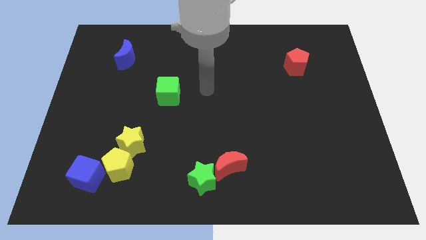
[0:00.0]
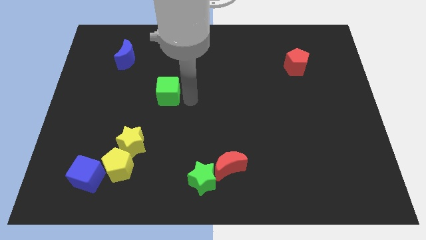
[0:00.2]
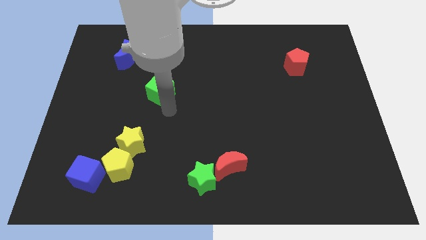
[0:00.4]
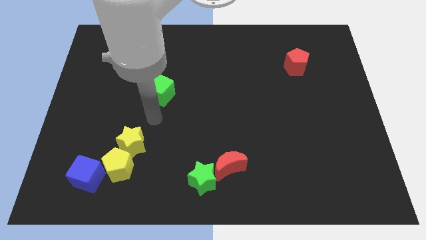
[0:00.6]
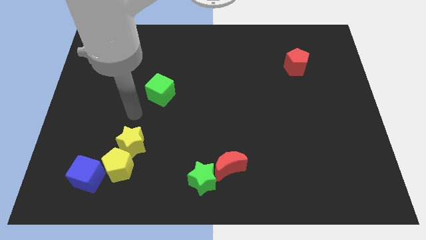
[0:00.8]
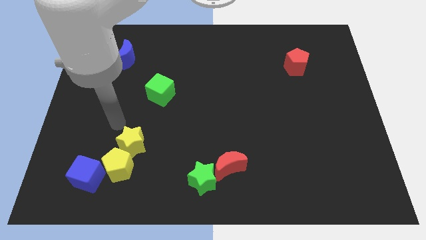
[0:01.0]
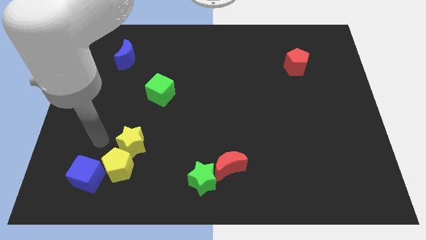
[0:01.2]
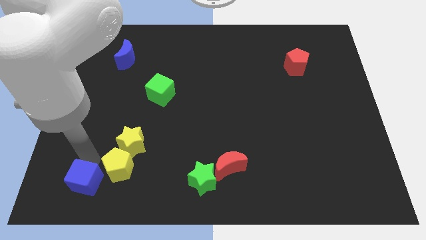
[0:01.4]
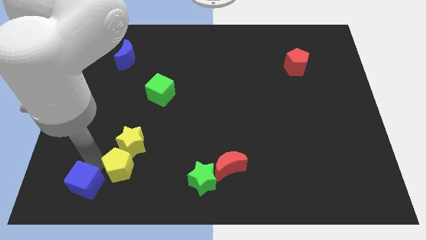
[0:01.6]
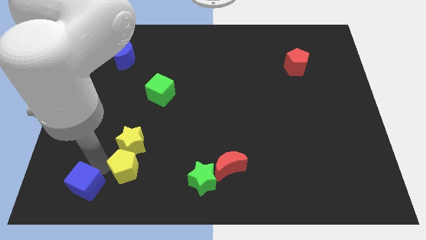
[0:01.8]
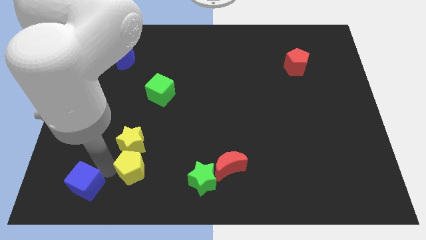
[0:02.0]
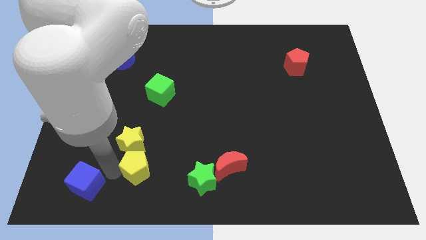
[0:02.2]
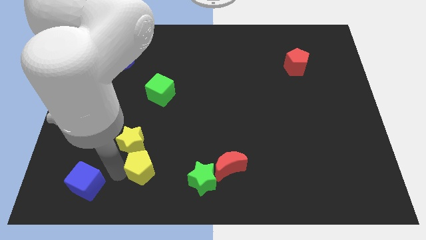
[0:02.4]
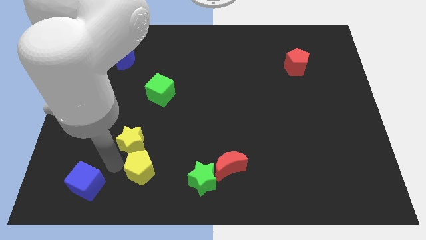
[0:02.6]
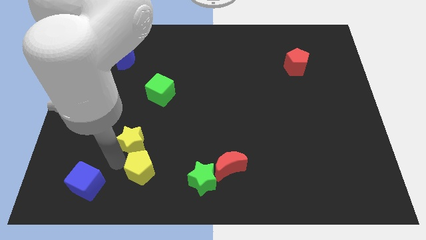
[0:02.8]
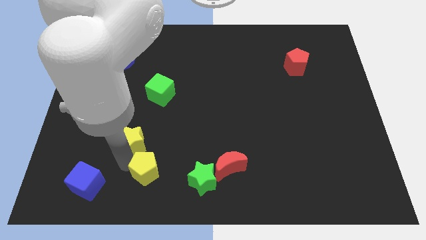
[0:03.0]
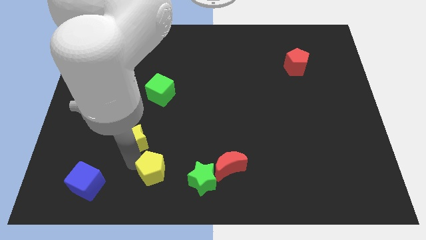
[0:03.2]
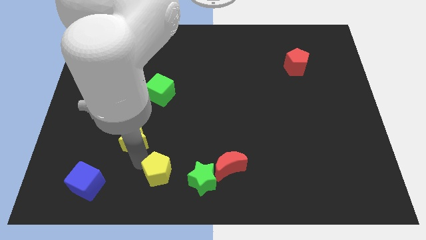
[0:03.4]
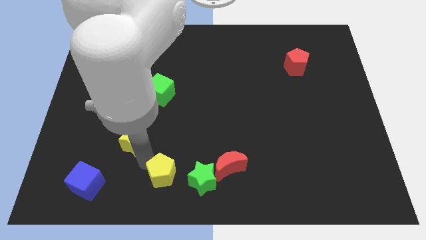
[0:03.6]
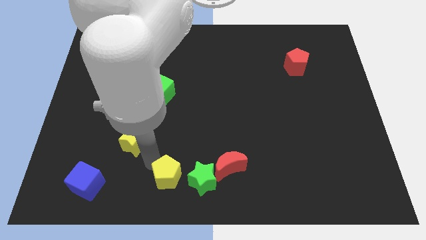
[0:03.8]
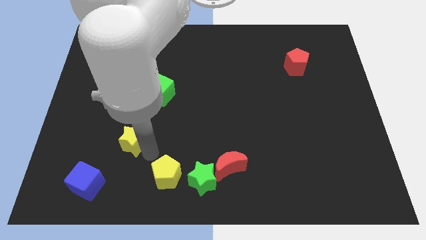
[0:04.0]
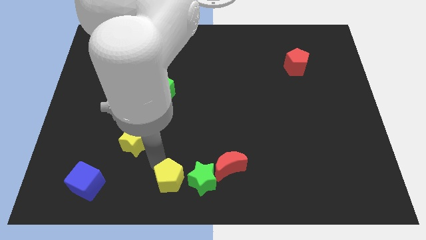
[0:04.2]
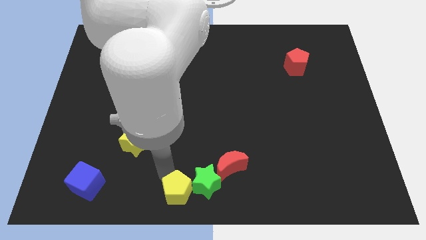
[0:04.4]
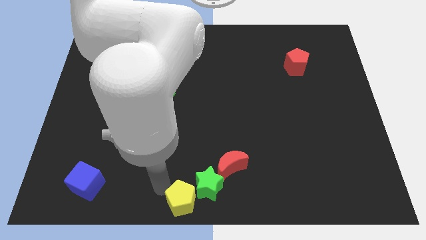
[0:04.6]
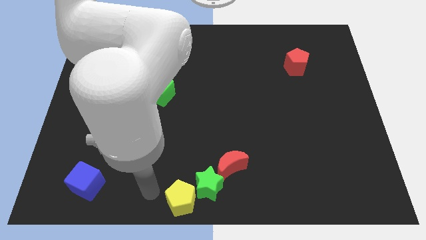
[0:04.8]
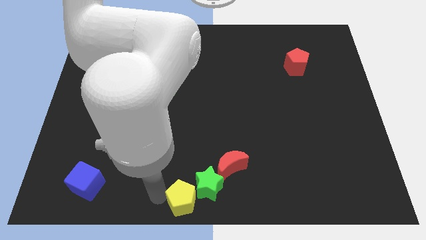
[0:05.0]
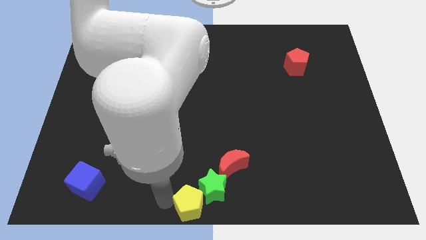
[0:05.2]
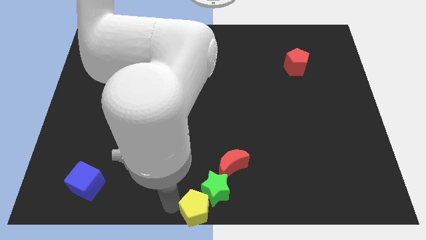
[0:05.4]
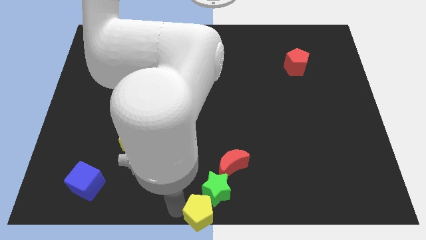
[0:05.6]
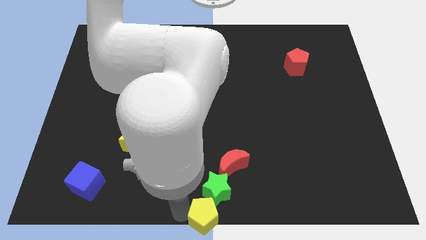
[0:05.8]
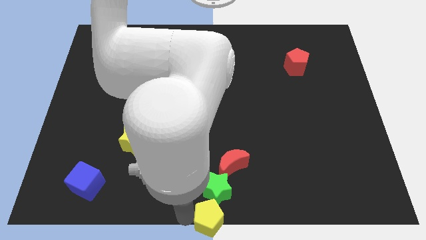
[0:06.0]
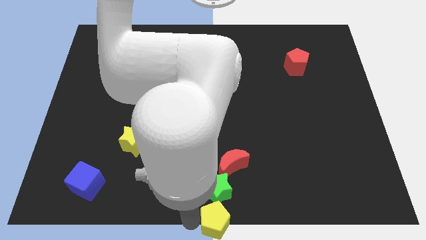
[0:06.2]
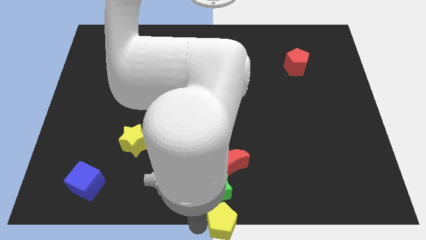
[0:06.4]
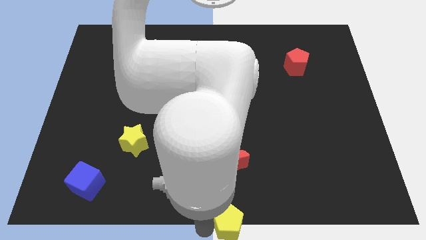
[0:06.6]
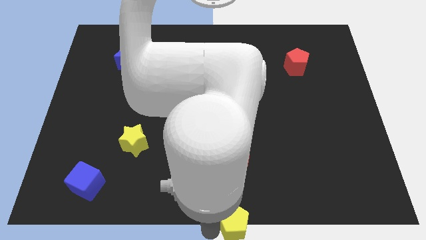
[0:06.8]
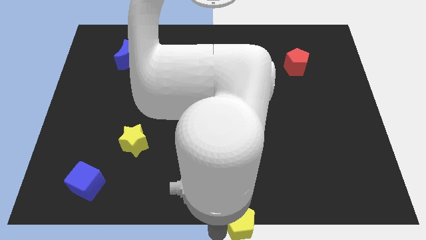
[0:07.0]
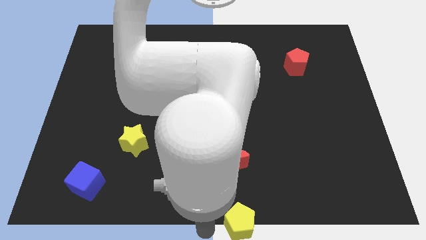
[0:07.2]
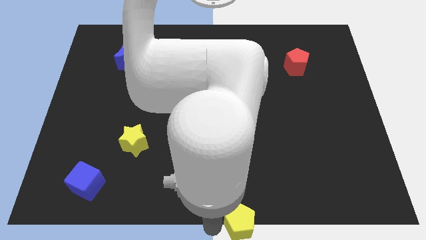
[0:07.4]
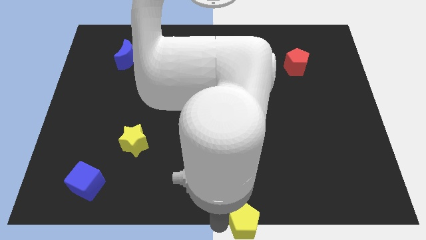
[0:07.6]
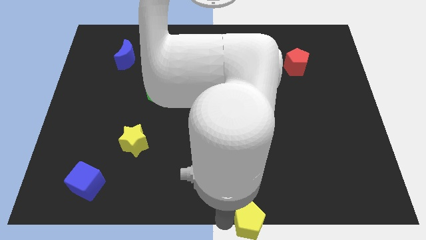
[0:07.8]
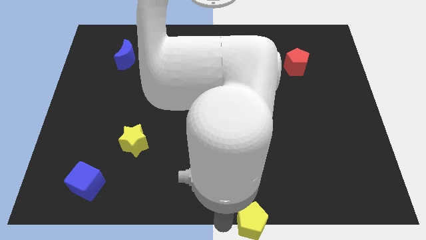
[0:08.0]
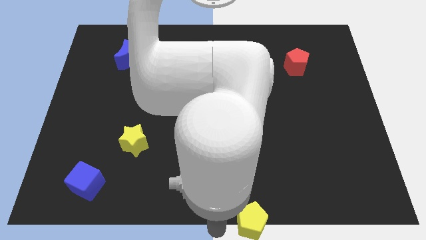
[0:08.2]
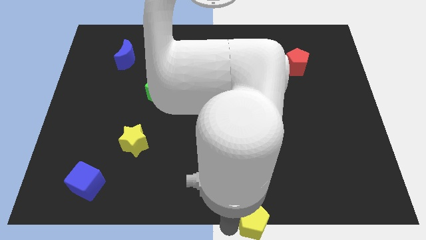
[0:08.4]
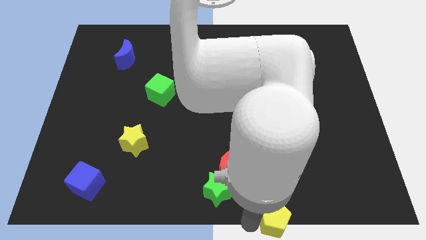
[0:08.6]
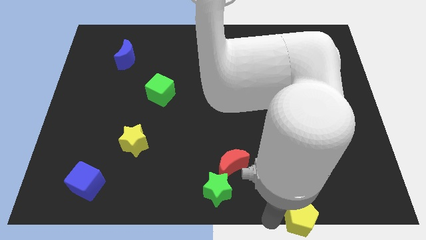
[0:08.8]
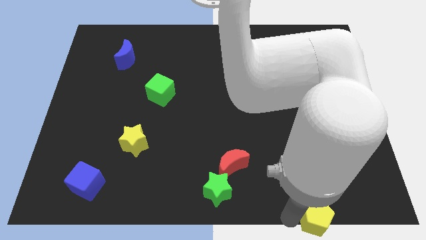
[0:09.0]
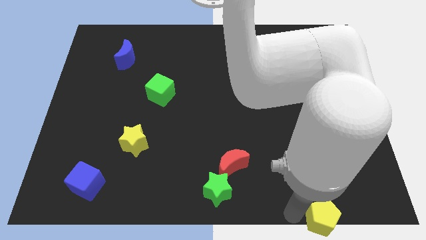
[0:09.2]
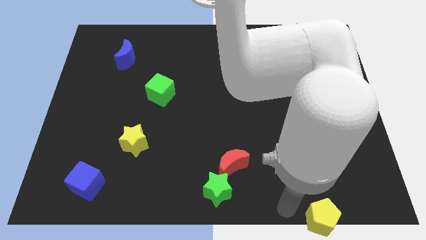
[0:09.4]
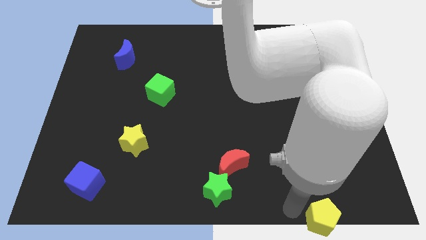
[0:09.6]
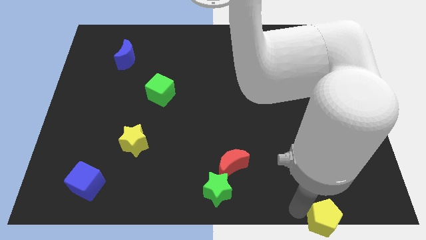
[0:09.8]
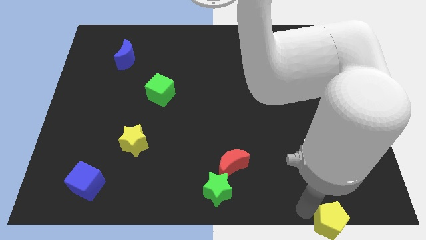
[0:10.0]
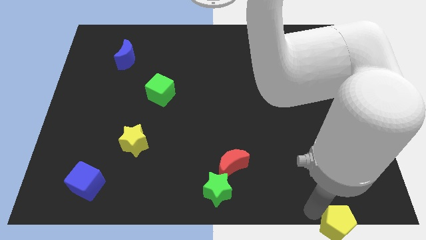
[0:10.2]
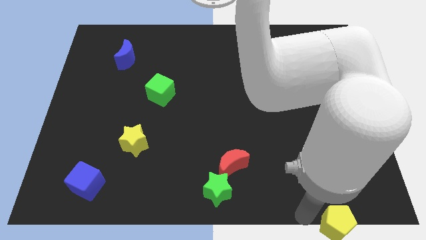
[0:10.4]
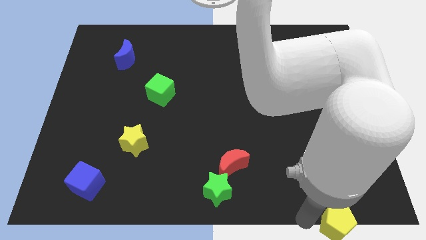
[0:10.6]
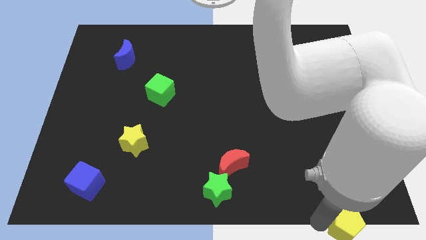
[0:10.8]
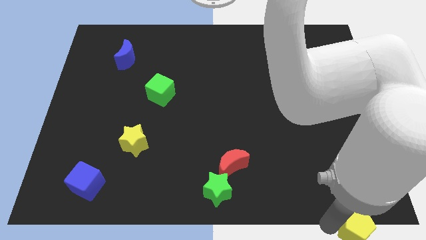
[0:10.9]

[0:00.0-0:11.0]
move the yellow pentagon to the bottom right of the board

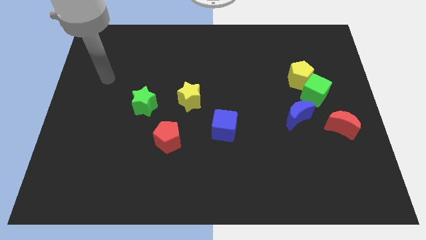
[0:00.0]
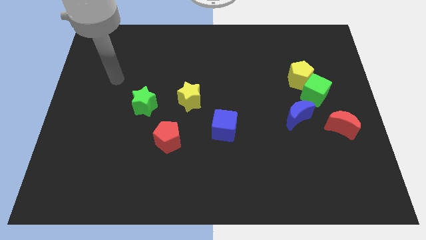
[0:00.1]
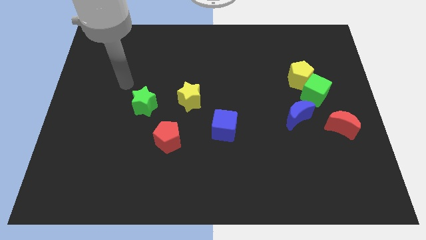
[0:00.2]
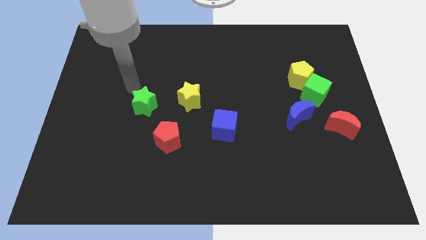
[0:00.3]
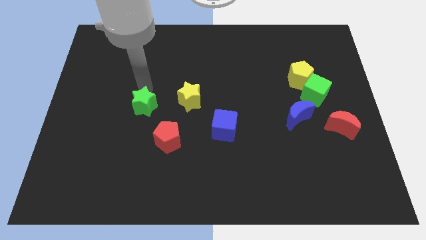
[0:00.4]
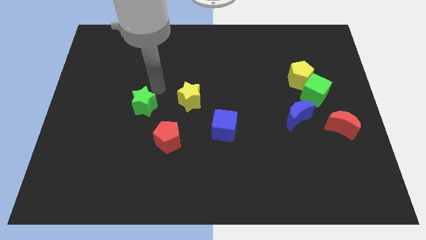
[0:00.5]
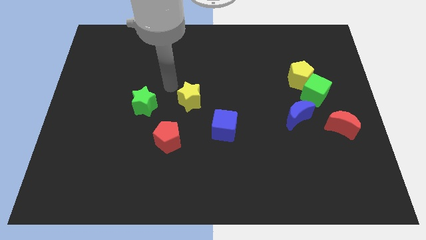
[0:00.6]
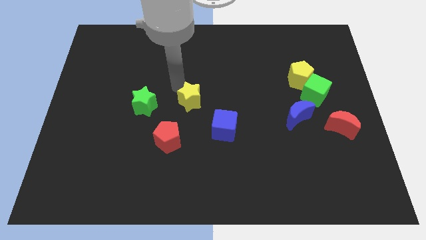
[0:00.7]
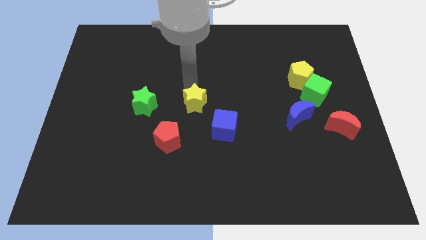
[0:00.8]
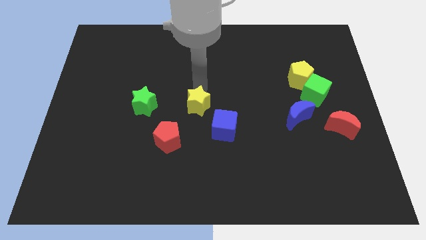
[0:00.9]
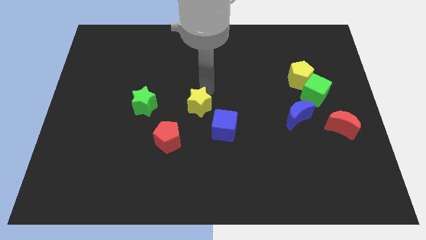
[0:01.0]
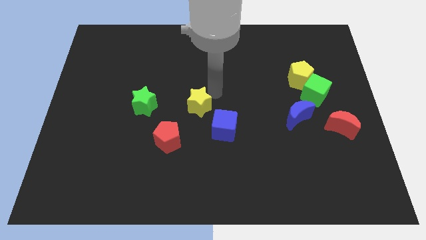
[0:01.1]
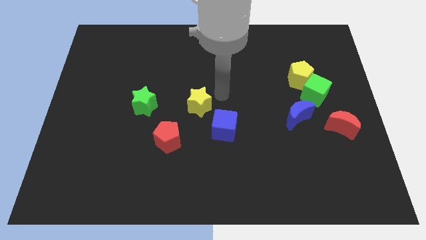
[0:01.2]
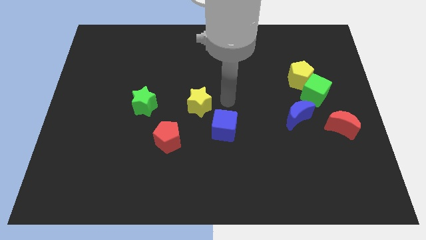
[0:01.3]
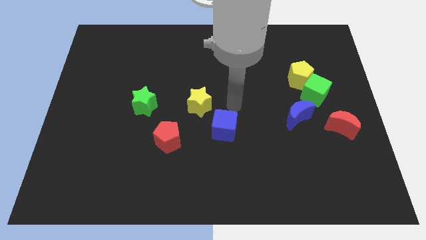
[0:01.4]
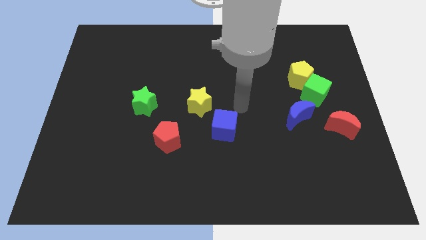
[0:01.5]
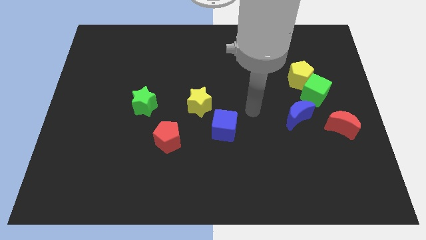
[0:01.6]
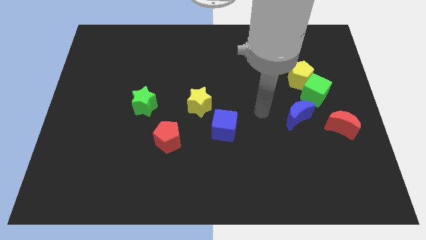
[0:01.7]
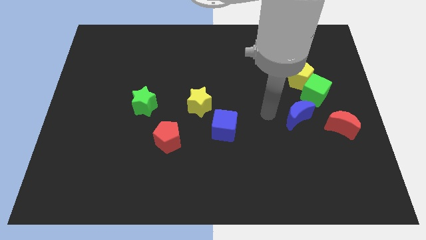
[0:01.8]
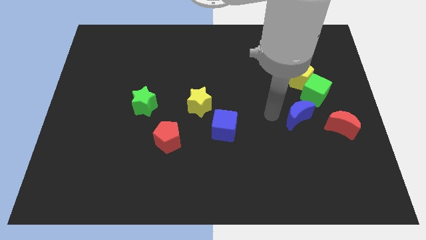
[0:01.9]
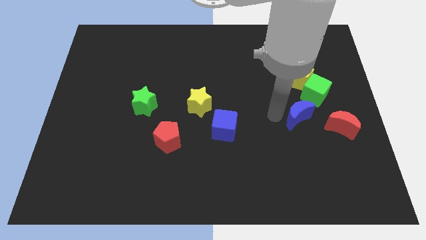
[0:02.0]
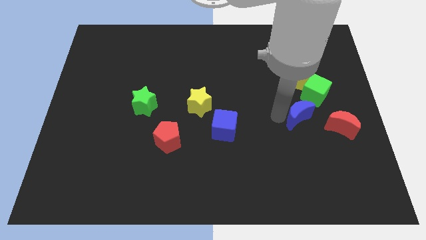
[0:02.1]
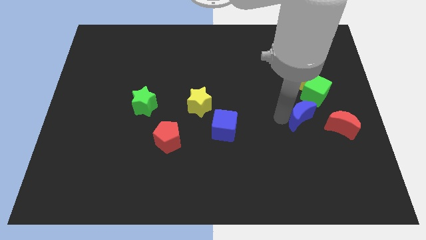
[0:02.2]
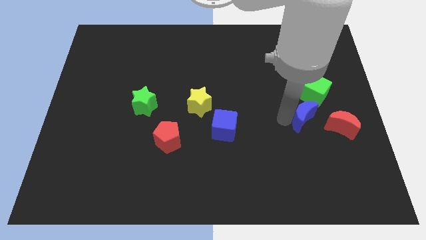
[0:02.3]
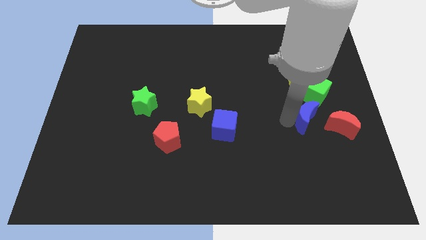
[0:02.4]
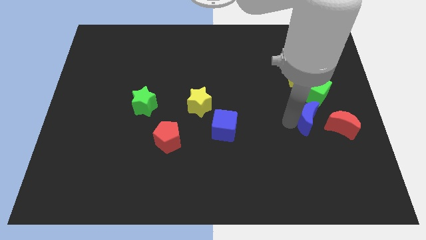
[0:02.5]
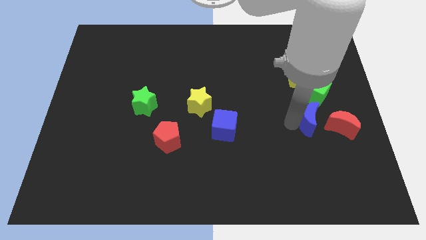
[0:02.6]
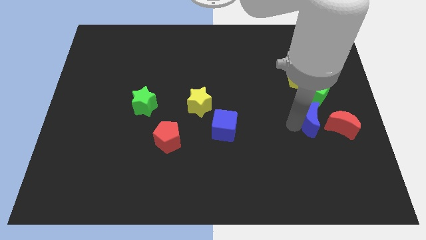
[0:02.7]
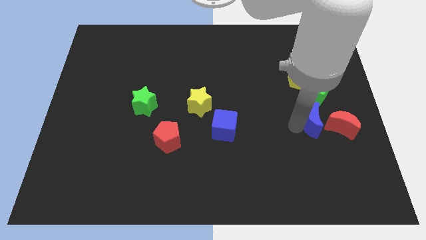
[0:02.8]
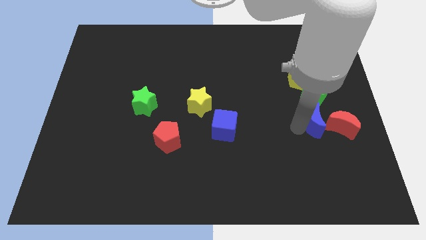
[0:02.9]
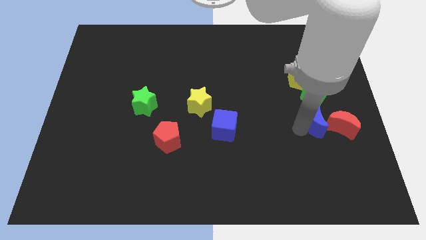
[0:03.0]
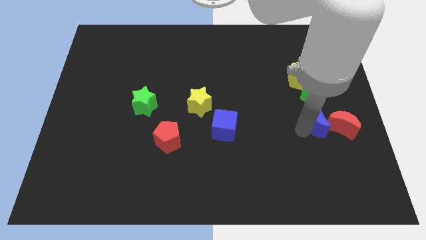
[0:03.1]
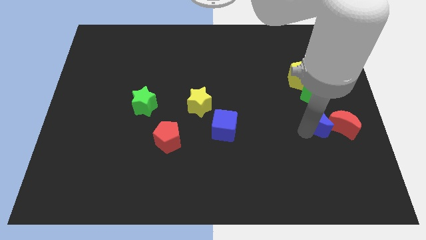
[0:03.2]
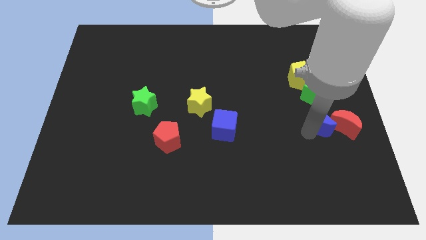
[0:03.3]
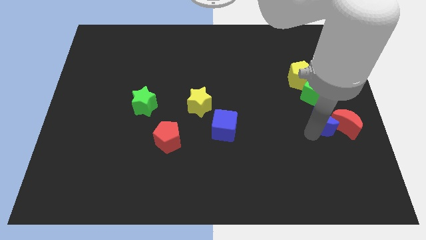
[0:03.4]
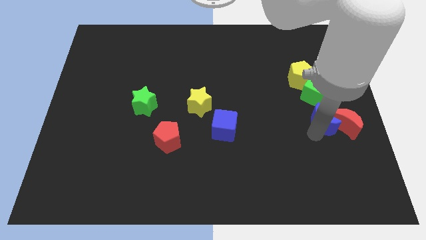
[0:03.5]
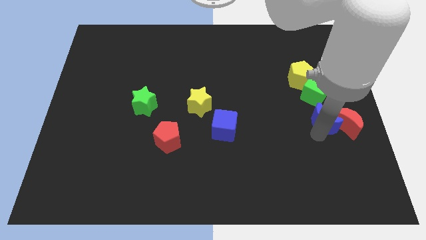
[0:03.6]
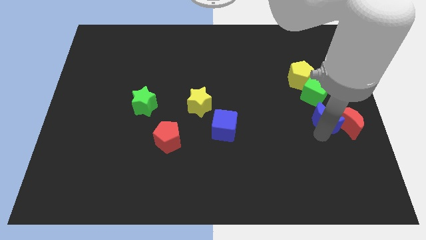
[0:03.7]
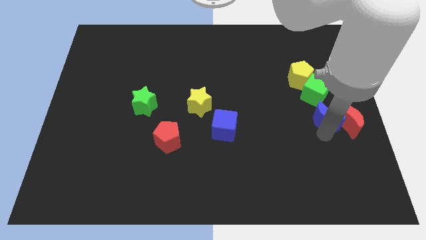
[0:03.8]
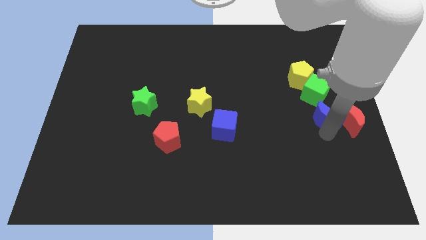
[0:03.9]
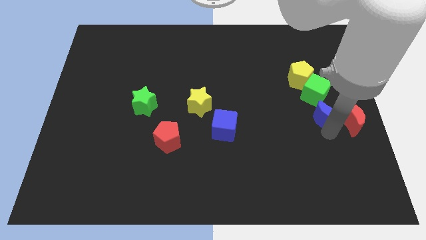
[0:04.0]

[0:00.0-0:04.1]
move the blue moon to the right side
